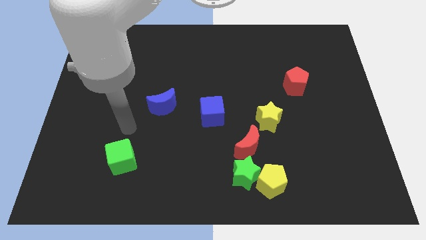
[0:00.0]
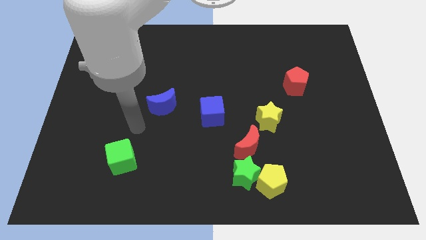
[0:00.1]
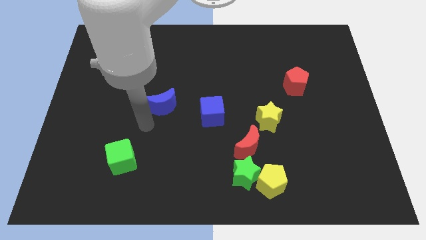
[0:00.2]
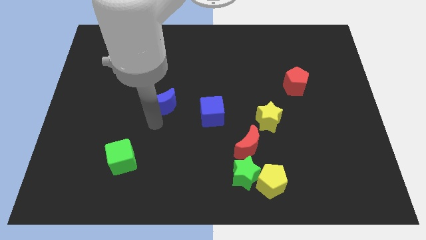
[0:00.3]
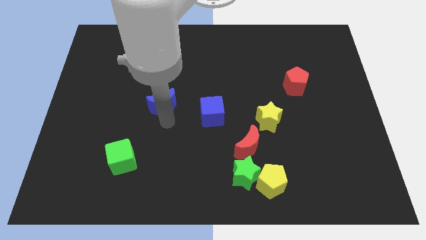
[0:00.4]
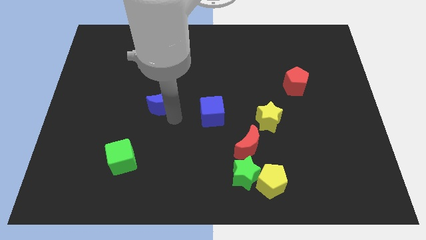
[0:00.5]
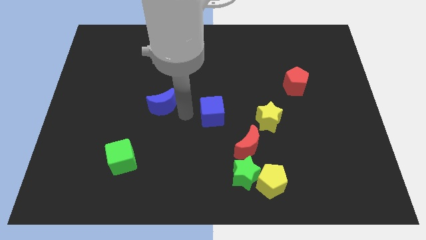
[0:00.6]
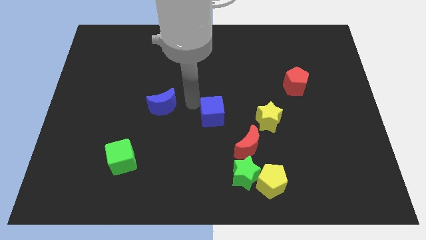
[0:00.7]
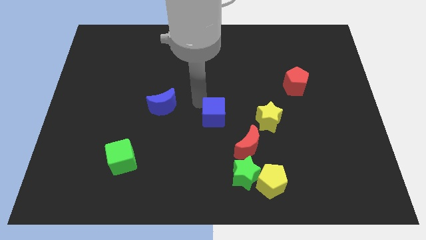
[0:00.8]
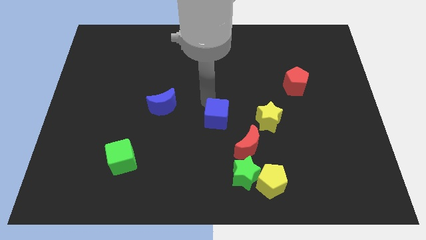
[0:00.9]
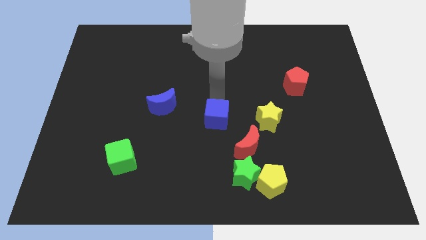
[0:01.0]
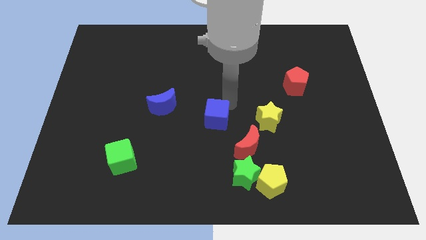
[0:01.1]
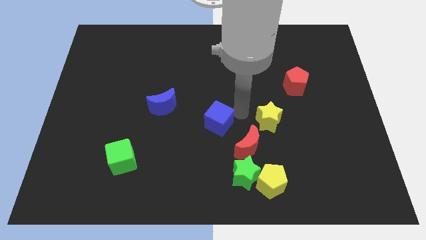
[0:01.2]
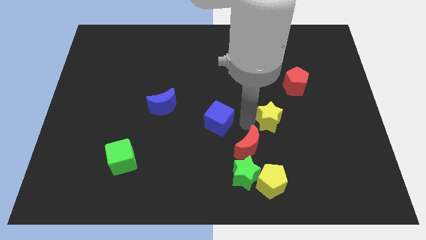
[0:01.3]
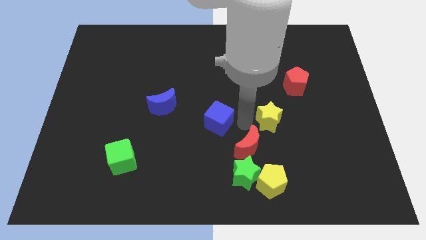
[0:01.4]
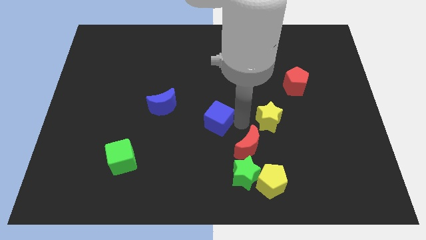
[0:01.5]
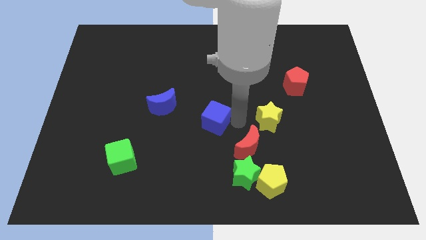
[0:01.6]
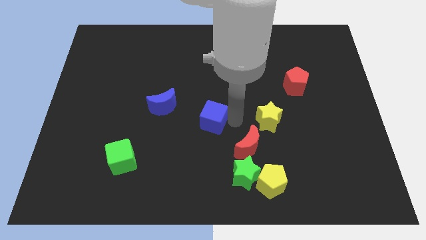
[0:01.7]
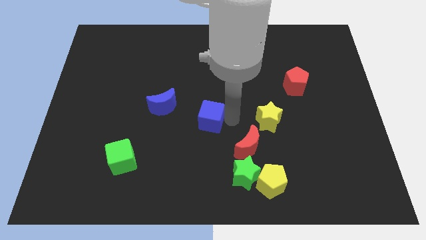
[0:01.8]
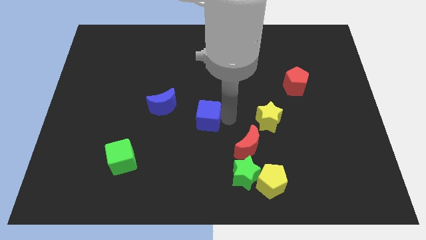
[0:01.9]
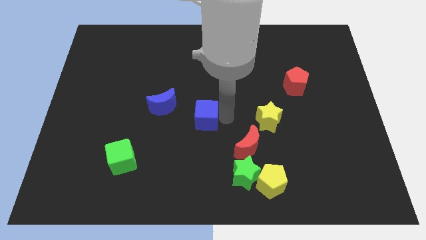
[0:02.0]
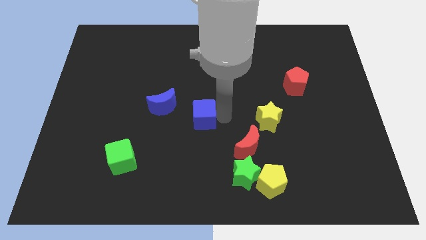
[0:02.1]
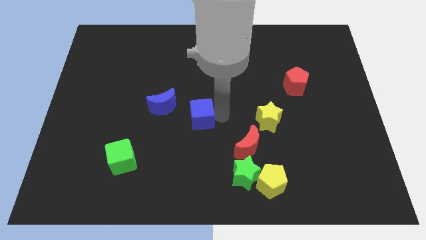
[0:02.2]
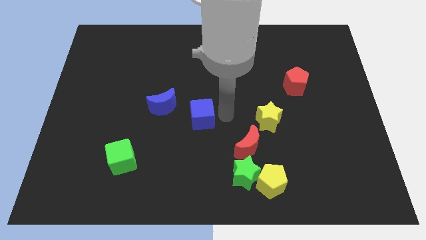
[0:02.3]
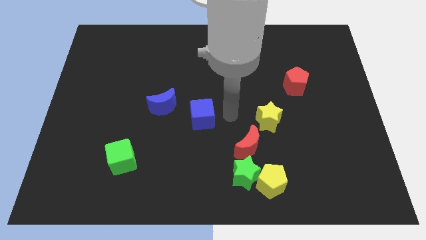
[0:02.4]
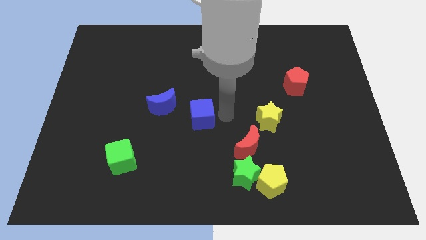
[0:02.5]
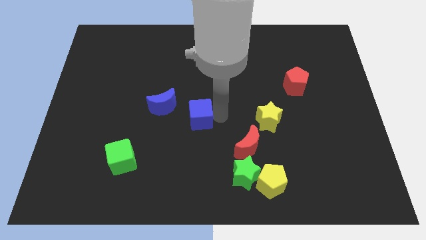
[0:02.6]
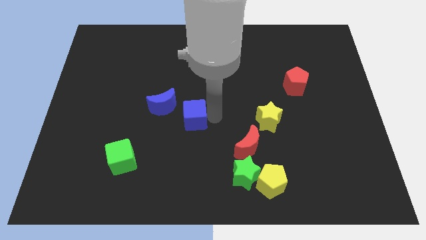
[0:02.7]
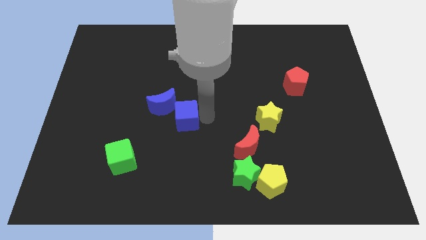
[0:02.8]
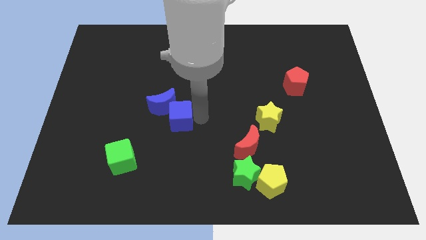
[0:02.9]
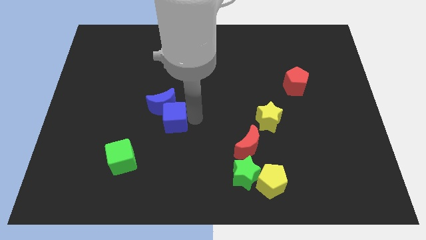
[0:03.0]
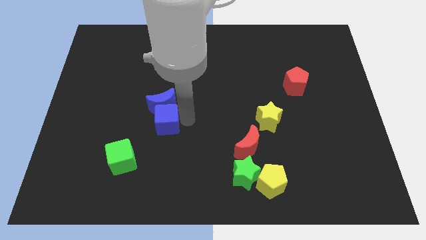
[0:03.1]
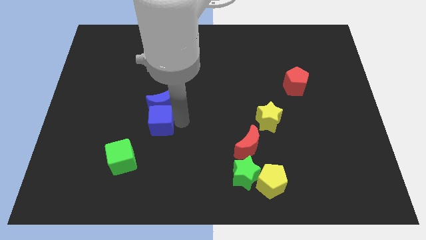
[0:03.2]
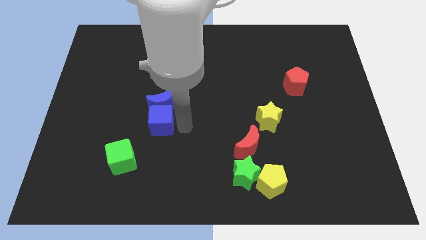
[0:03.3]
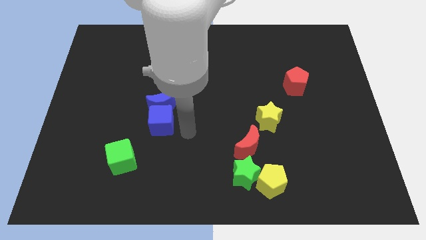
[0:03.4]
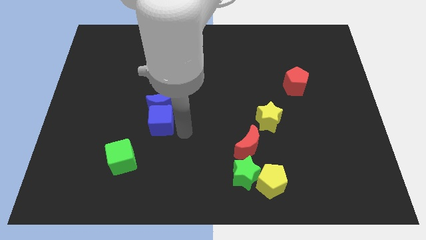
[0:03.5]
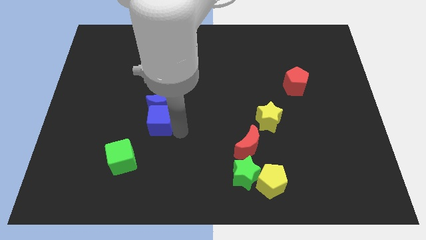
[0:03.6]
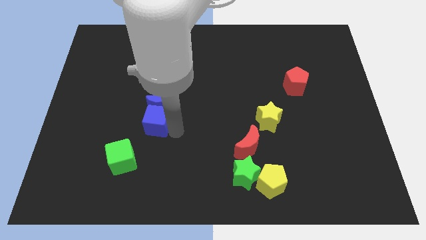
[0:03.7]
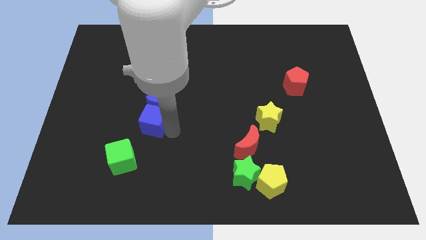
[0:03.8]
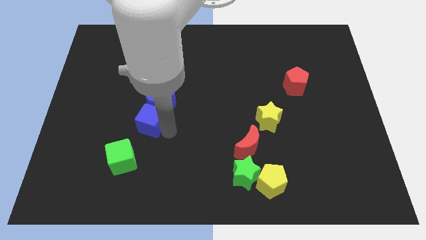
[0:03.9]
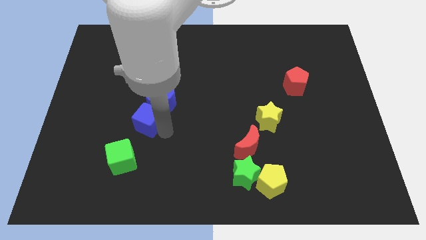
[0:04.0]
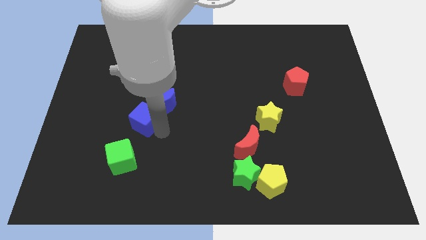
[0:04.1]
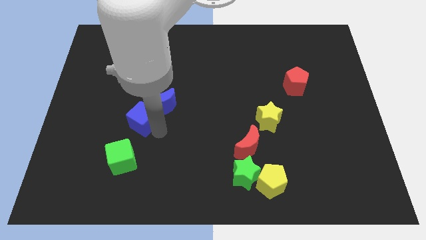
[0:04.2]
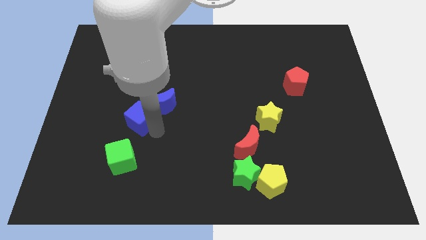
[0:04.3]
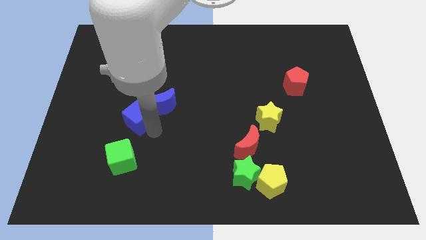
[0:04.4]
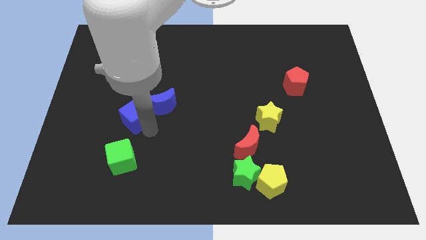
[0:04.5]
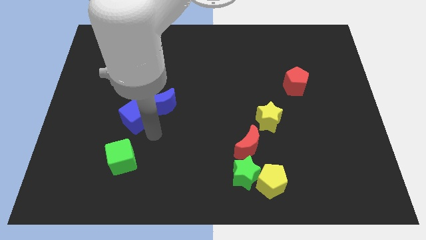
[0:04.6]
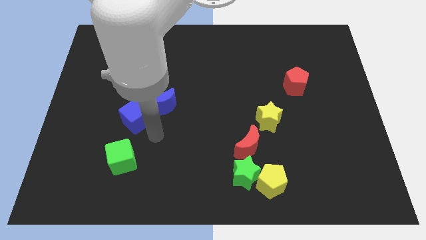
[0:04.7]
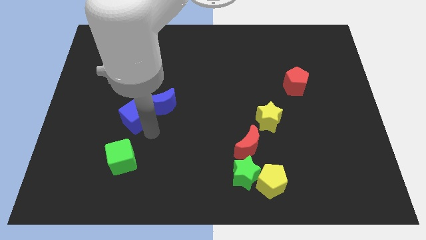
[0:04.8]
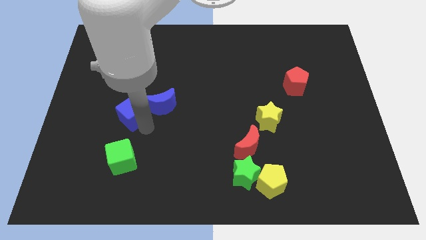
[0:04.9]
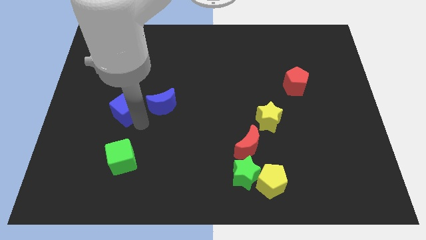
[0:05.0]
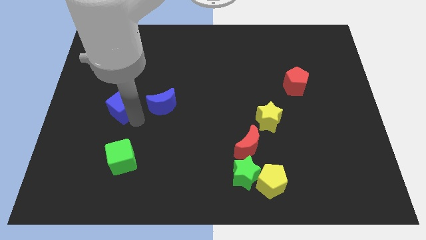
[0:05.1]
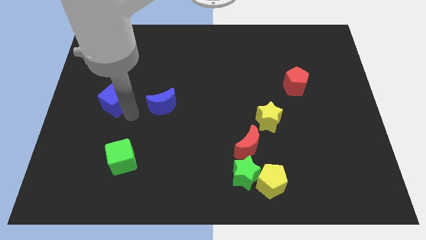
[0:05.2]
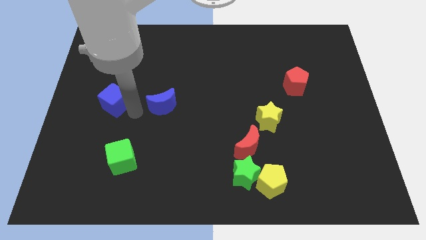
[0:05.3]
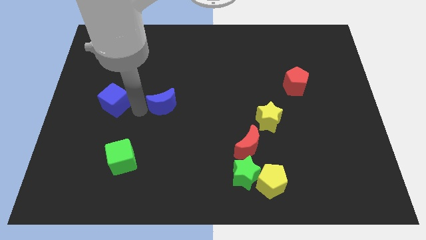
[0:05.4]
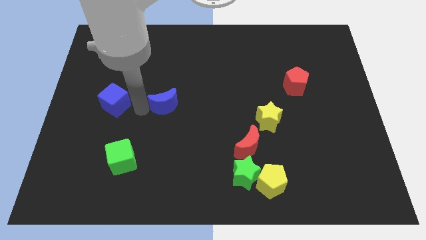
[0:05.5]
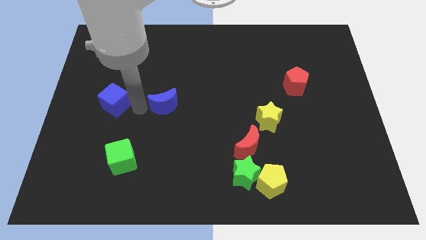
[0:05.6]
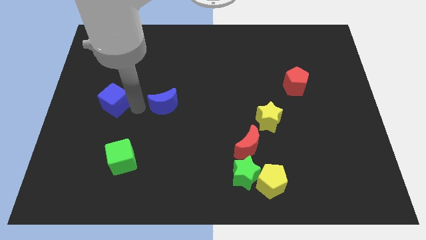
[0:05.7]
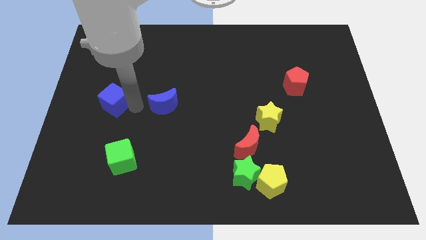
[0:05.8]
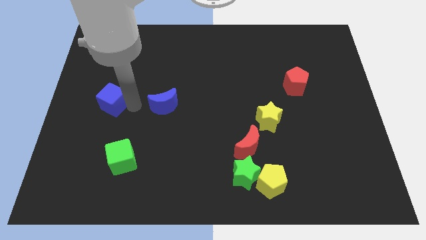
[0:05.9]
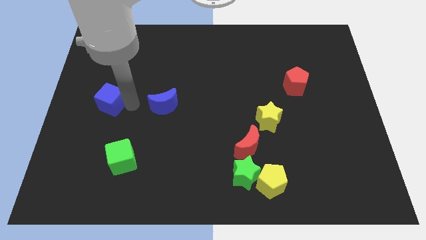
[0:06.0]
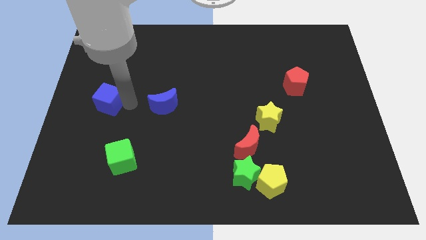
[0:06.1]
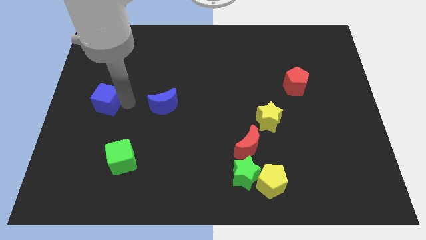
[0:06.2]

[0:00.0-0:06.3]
slide the blue cube to the left side of the board
